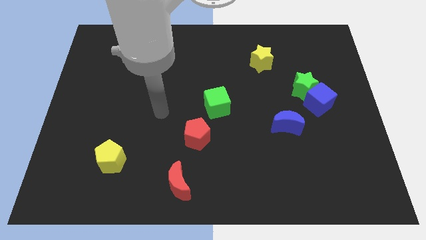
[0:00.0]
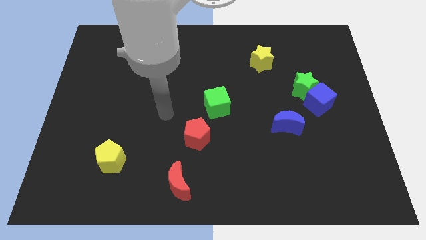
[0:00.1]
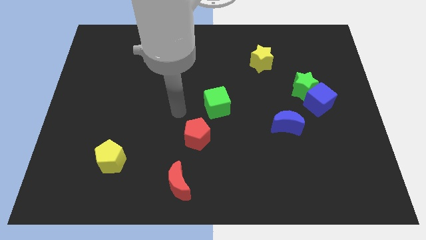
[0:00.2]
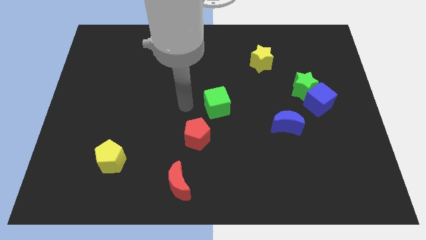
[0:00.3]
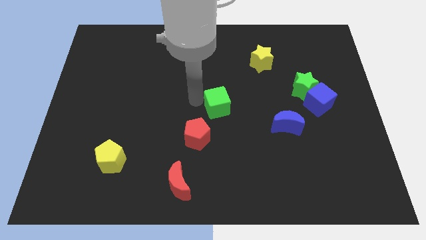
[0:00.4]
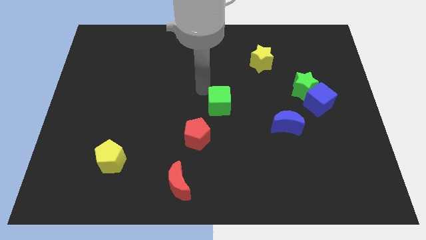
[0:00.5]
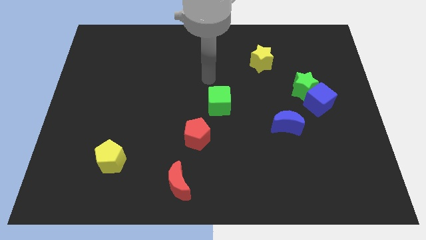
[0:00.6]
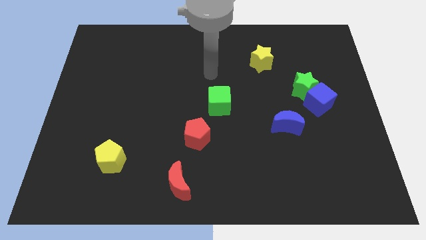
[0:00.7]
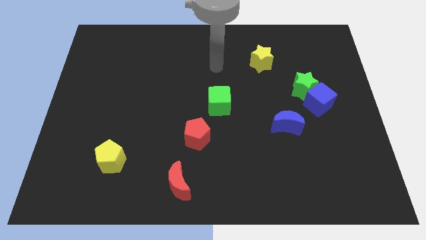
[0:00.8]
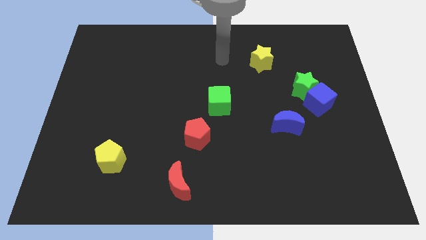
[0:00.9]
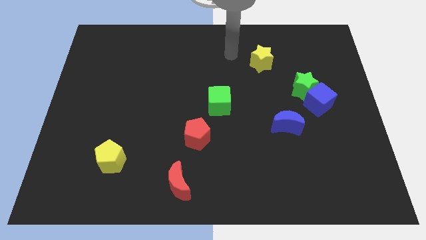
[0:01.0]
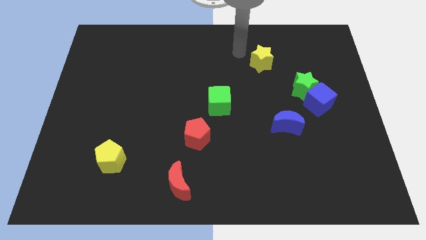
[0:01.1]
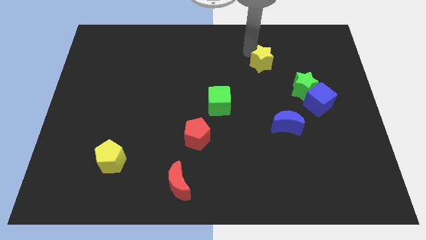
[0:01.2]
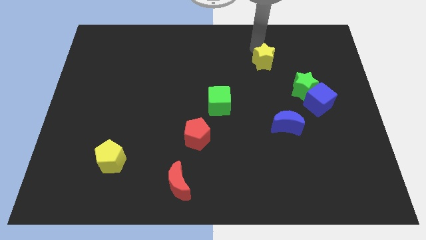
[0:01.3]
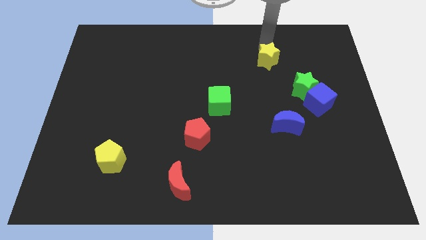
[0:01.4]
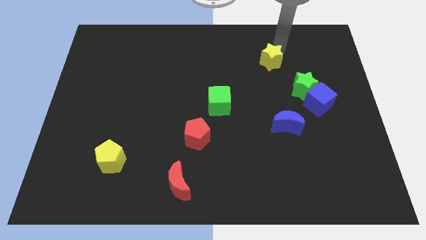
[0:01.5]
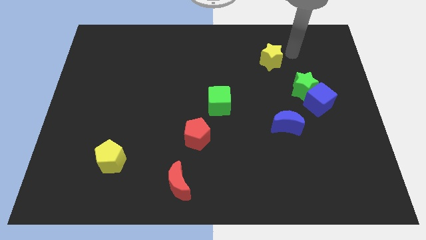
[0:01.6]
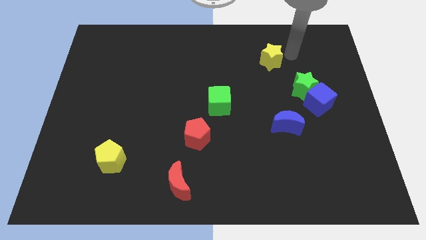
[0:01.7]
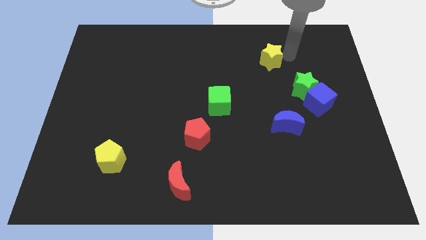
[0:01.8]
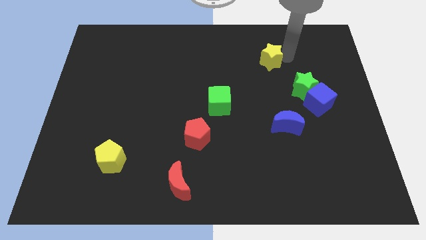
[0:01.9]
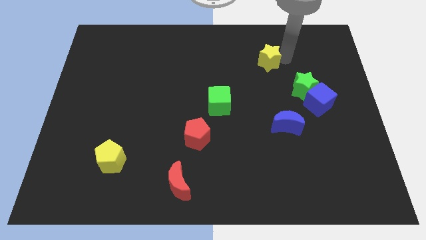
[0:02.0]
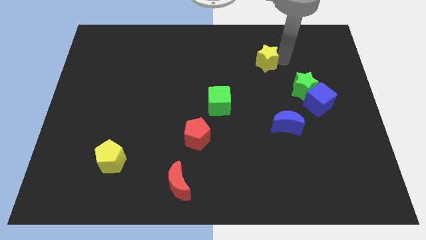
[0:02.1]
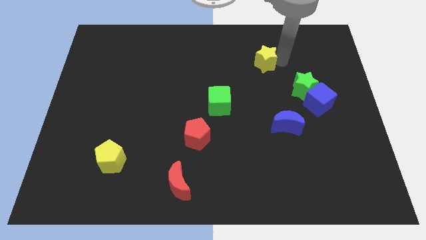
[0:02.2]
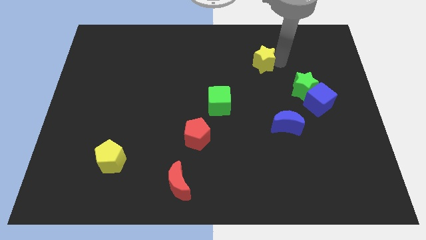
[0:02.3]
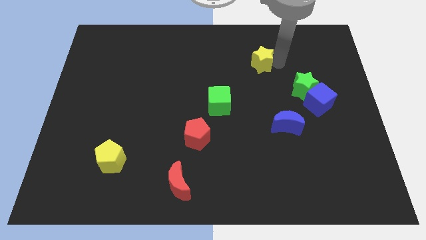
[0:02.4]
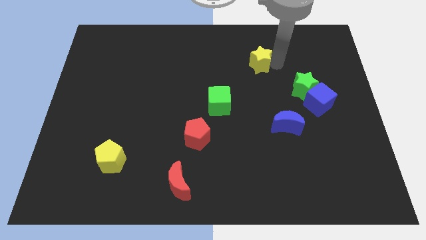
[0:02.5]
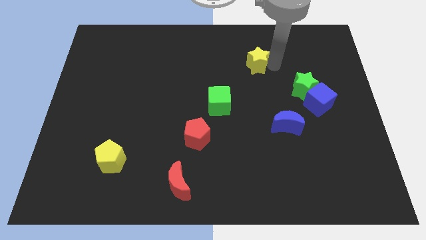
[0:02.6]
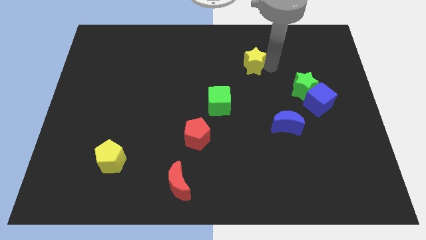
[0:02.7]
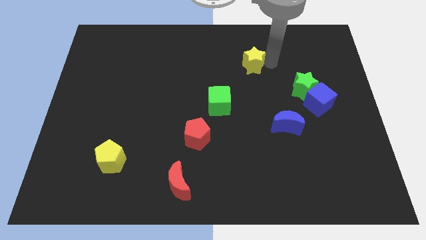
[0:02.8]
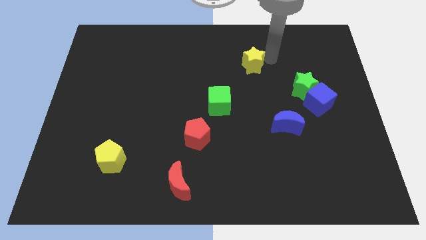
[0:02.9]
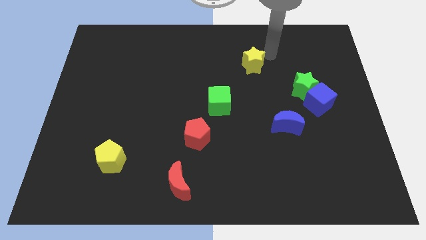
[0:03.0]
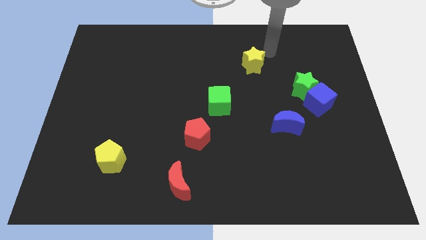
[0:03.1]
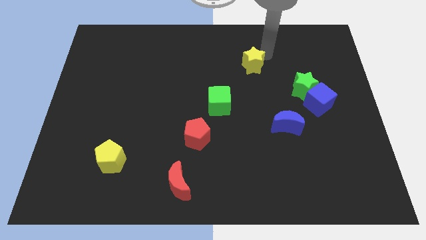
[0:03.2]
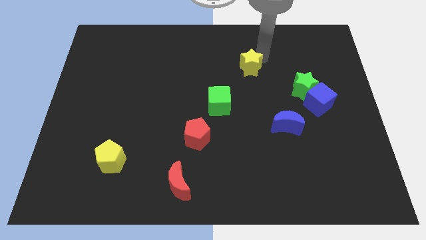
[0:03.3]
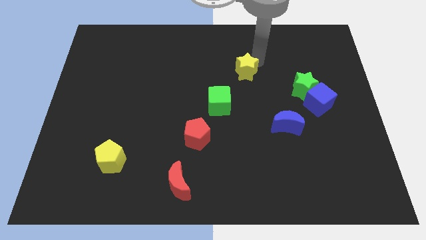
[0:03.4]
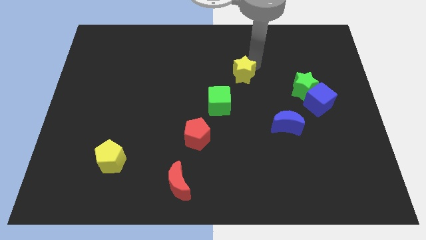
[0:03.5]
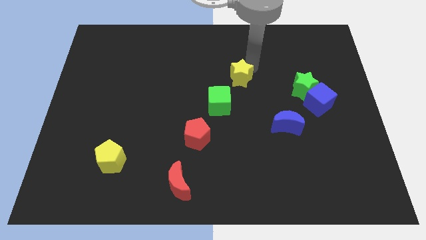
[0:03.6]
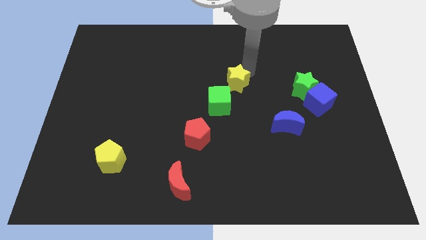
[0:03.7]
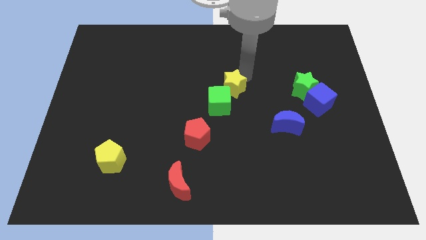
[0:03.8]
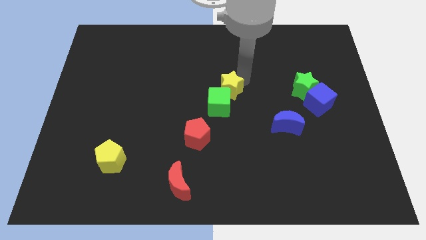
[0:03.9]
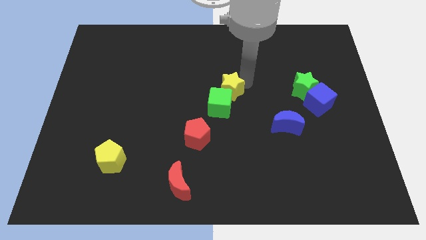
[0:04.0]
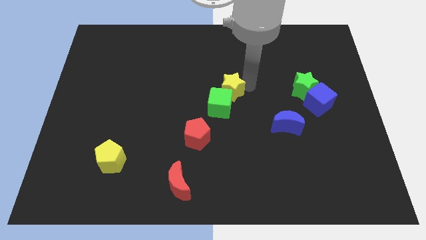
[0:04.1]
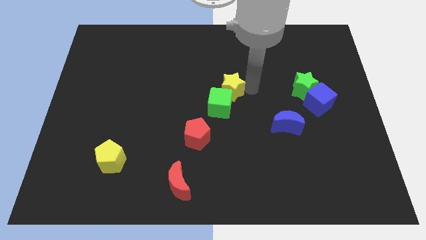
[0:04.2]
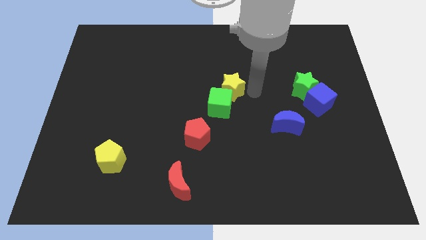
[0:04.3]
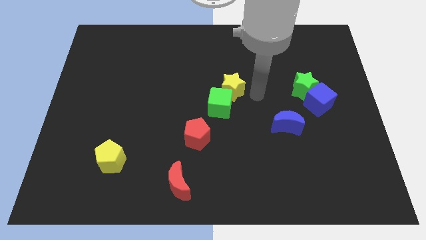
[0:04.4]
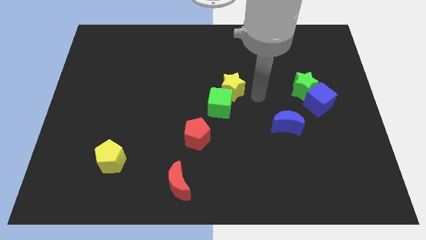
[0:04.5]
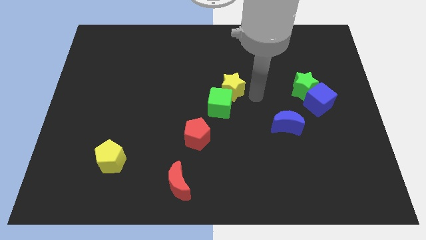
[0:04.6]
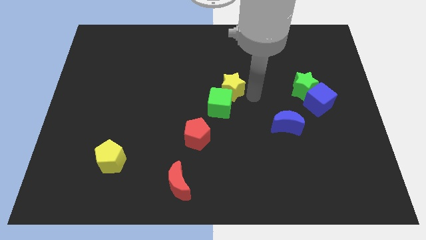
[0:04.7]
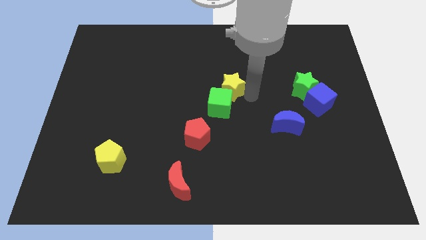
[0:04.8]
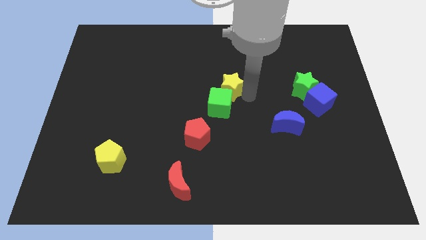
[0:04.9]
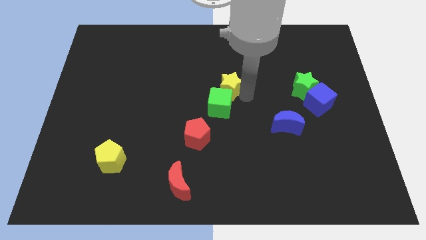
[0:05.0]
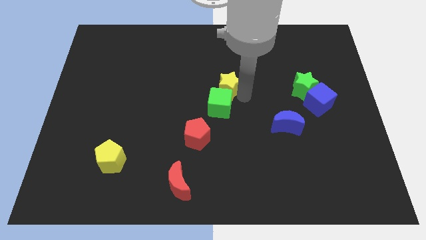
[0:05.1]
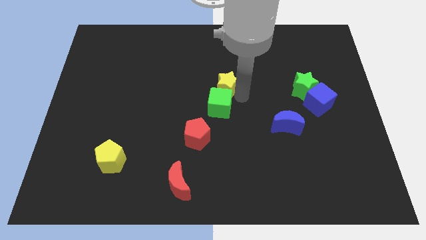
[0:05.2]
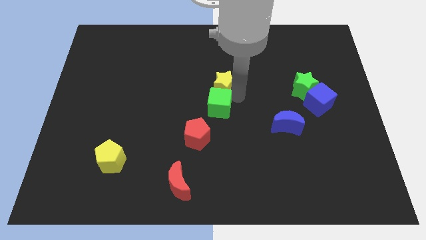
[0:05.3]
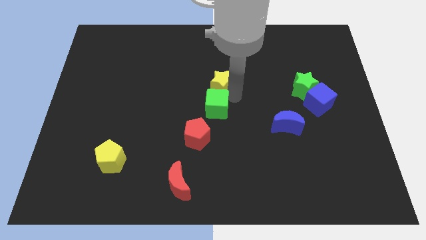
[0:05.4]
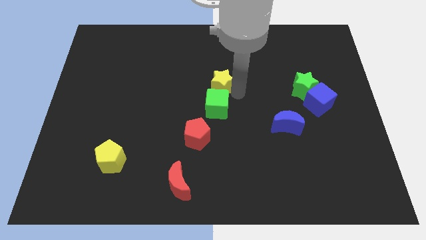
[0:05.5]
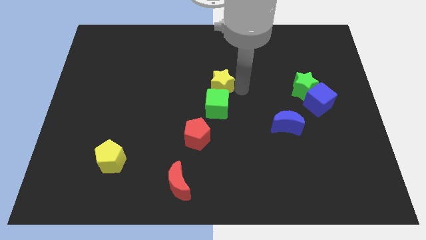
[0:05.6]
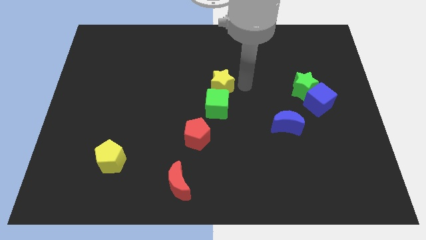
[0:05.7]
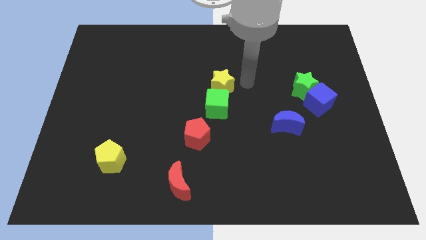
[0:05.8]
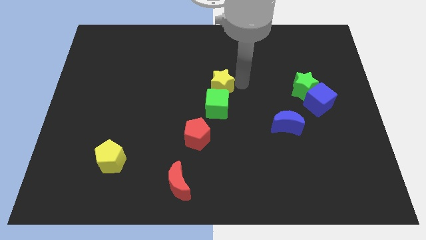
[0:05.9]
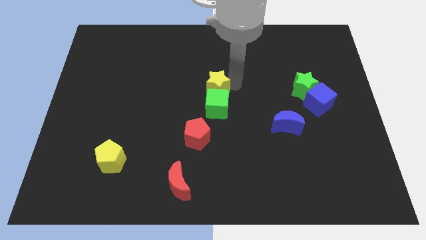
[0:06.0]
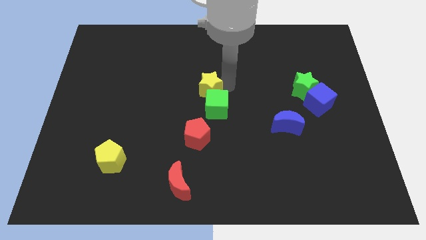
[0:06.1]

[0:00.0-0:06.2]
put the yellow star to the top side of the red pentagon
